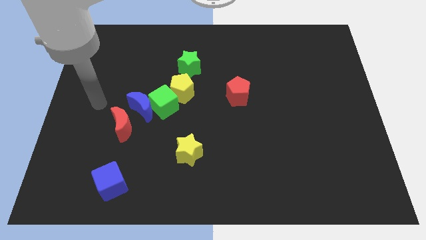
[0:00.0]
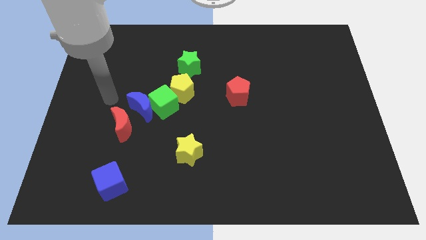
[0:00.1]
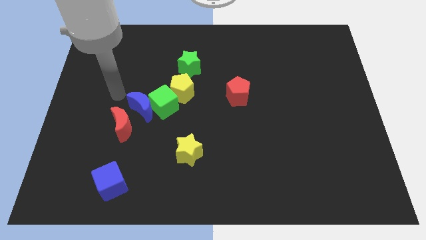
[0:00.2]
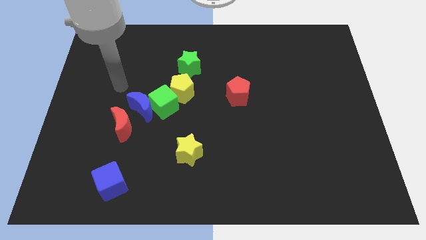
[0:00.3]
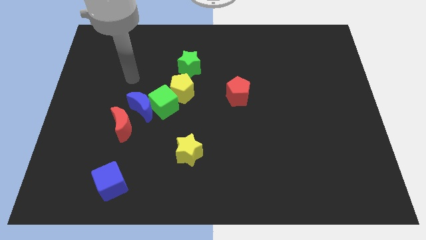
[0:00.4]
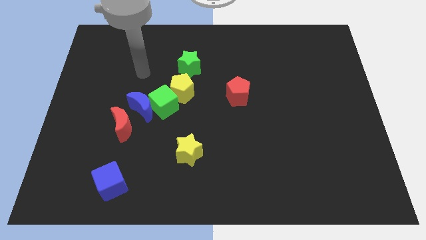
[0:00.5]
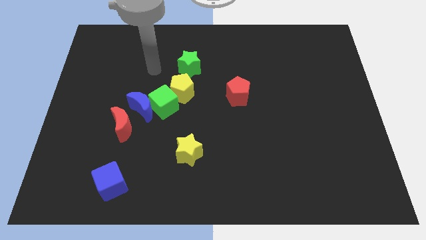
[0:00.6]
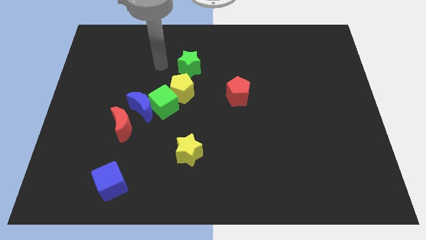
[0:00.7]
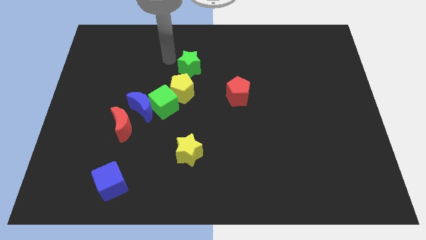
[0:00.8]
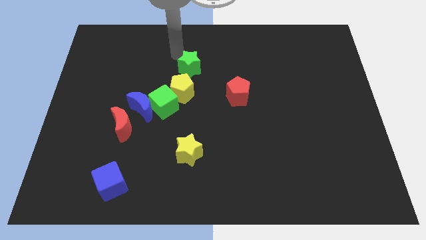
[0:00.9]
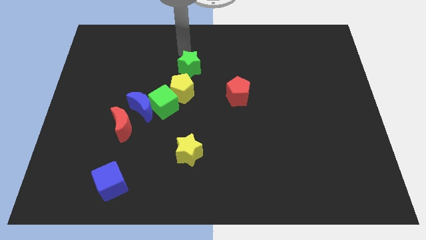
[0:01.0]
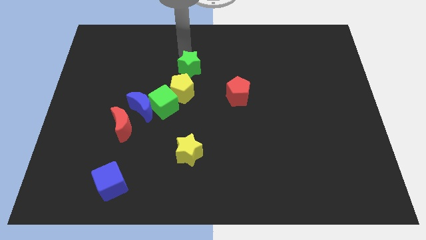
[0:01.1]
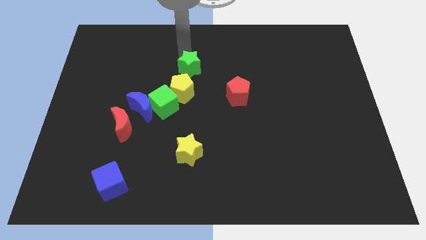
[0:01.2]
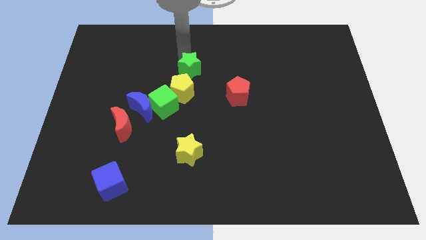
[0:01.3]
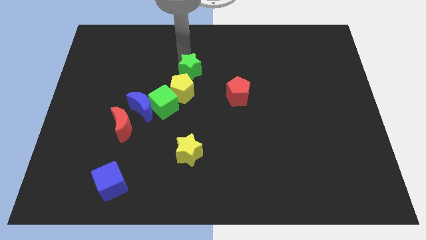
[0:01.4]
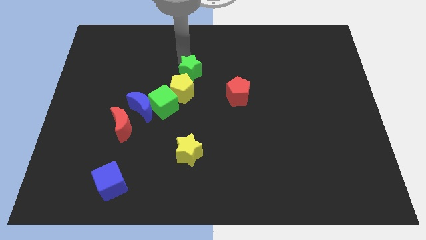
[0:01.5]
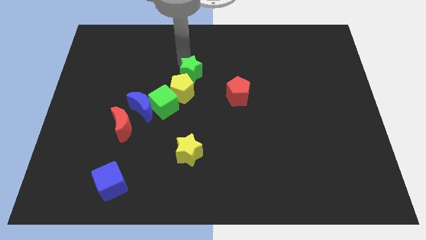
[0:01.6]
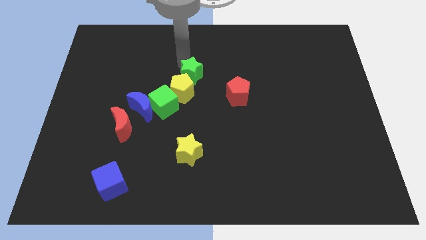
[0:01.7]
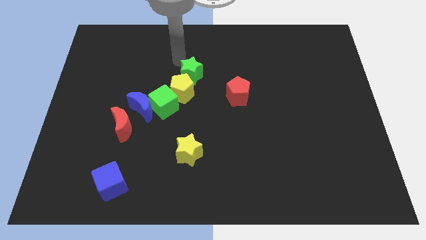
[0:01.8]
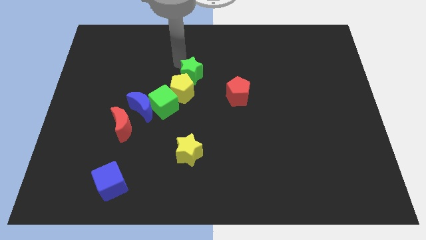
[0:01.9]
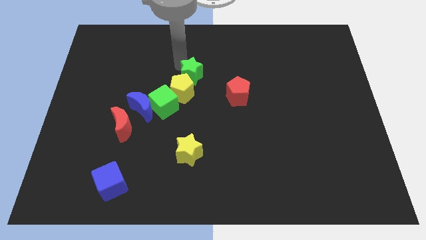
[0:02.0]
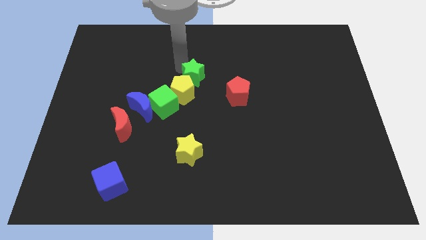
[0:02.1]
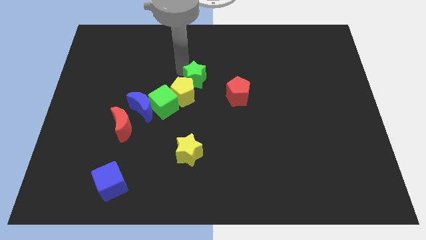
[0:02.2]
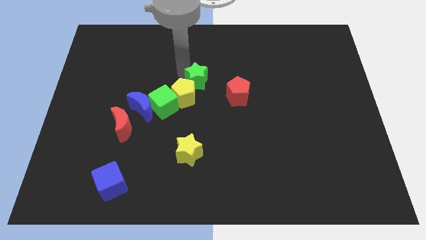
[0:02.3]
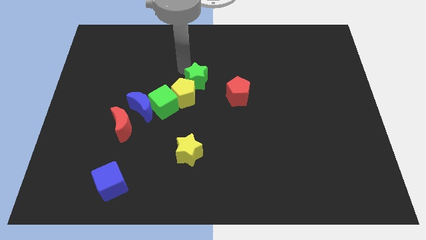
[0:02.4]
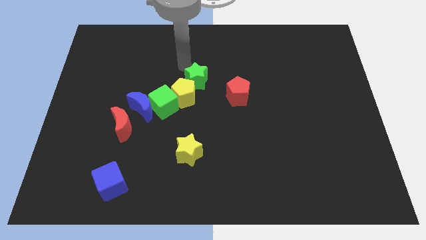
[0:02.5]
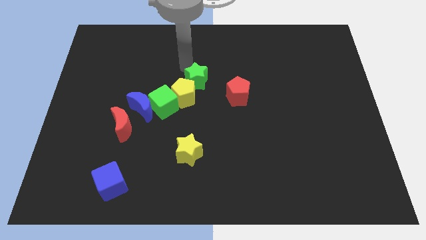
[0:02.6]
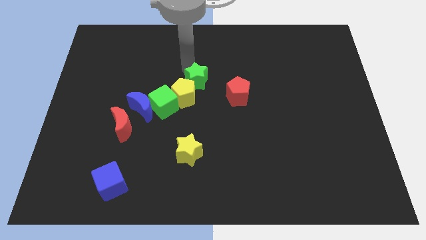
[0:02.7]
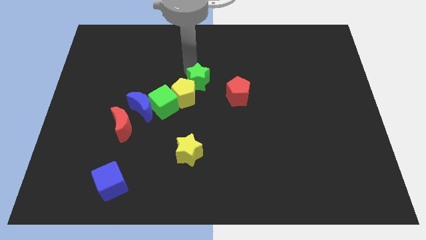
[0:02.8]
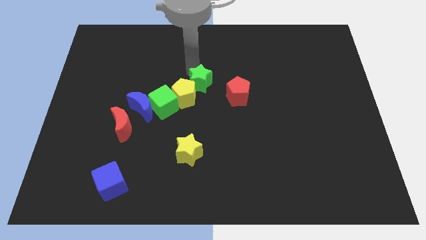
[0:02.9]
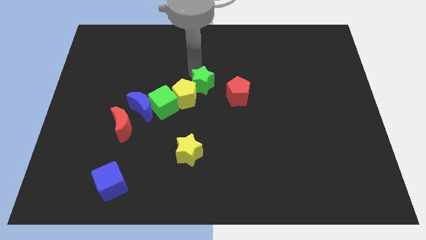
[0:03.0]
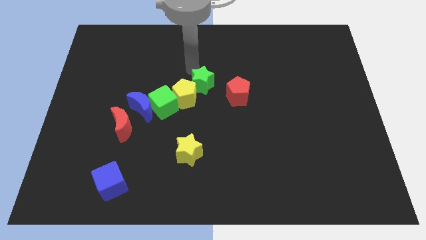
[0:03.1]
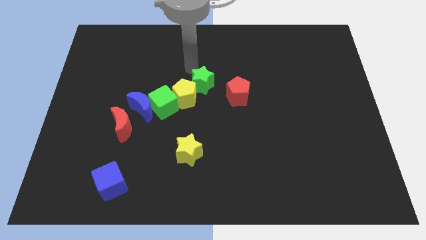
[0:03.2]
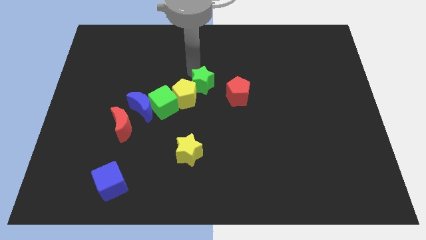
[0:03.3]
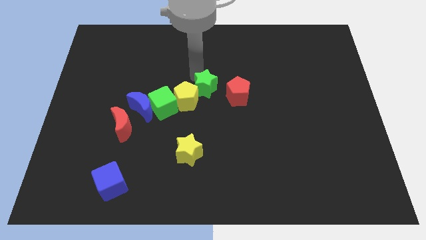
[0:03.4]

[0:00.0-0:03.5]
push the green star downwards and right diagonally slightly

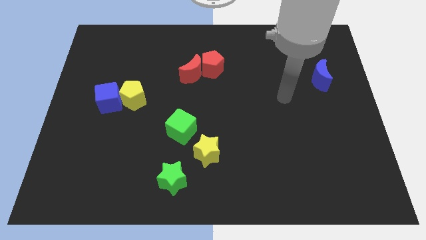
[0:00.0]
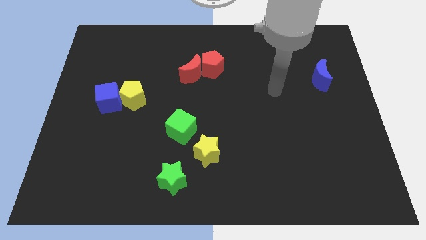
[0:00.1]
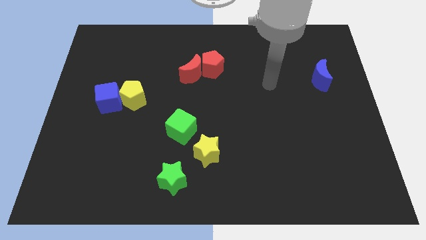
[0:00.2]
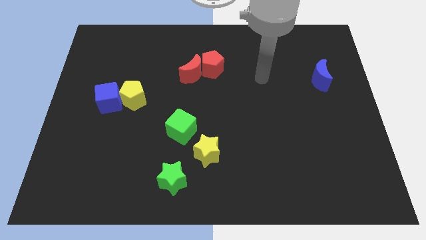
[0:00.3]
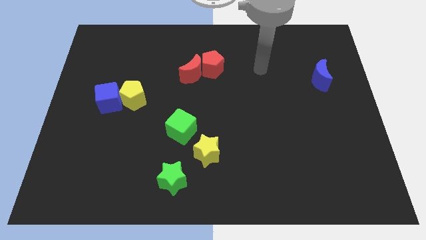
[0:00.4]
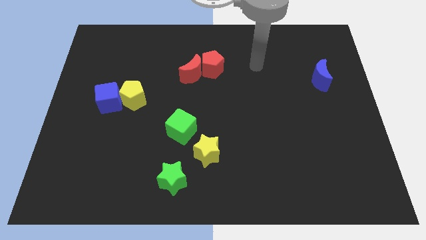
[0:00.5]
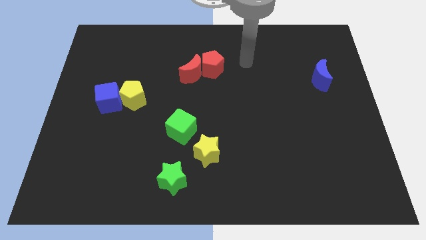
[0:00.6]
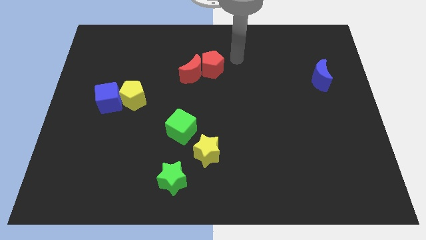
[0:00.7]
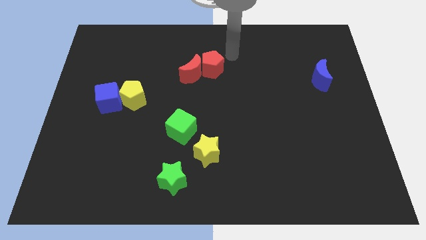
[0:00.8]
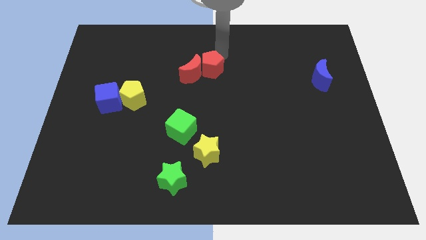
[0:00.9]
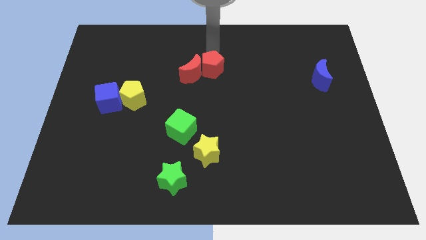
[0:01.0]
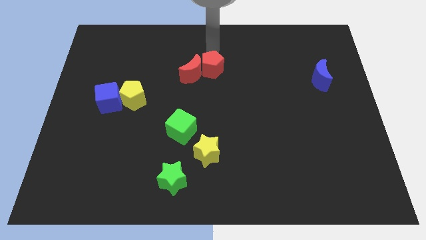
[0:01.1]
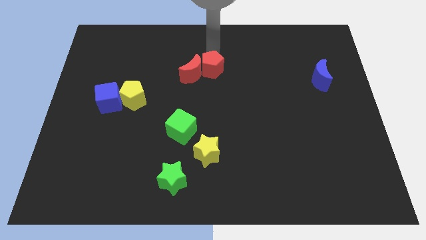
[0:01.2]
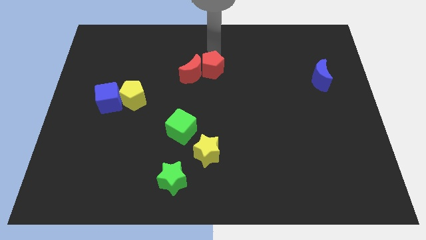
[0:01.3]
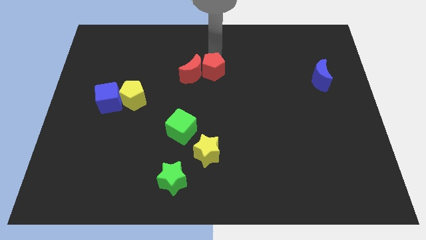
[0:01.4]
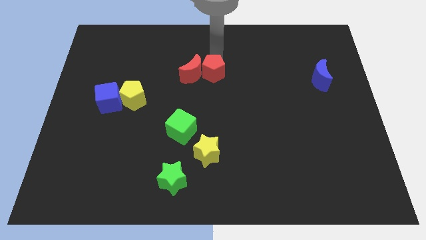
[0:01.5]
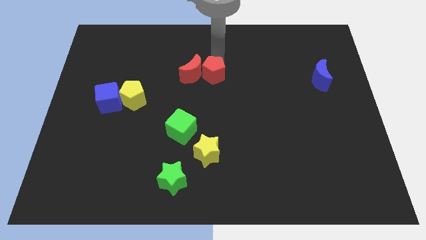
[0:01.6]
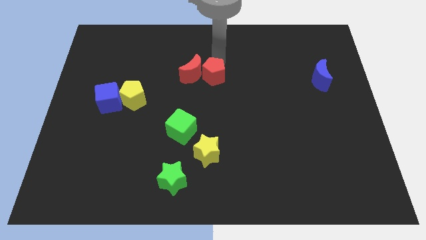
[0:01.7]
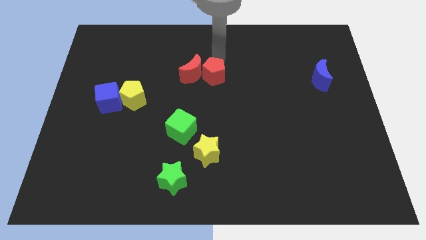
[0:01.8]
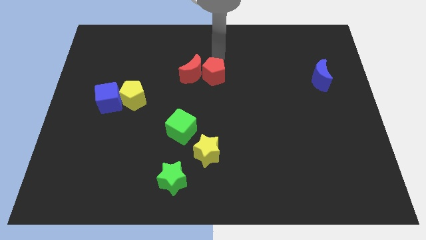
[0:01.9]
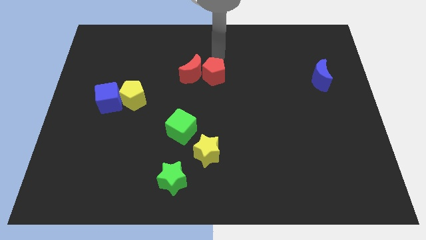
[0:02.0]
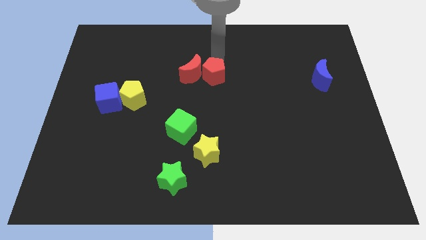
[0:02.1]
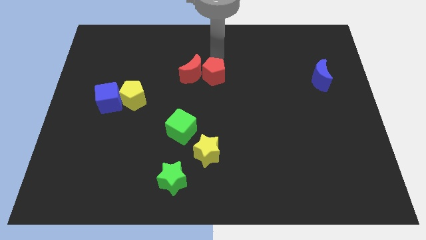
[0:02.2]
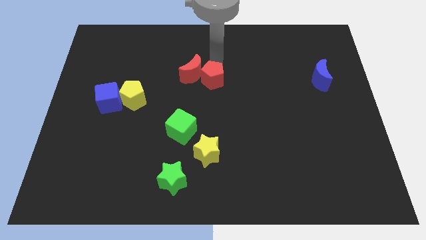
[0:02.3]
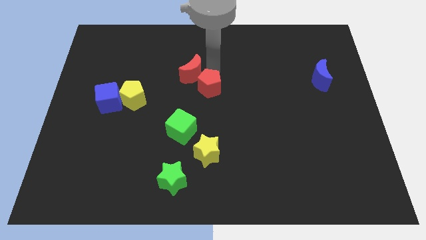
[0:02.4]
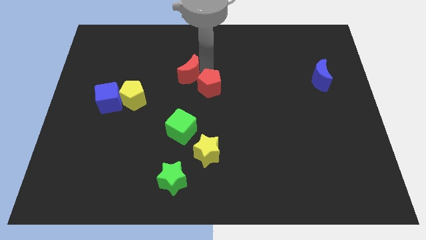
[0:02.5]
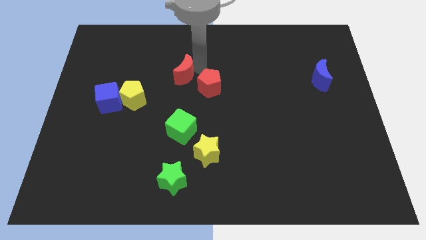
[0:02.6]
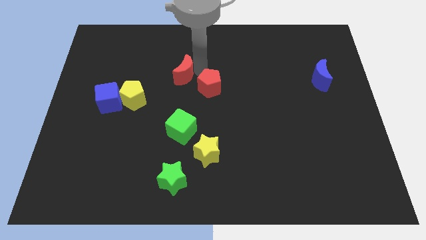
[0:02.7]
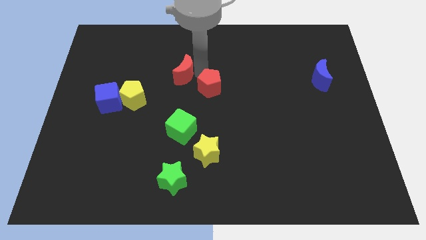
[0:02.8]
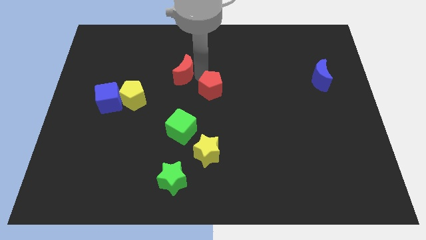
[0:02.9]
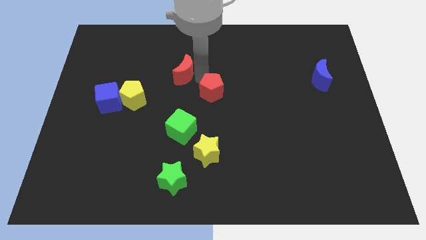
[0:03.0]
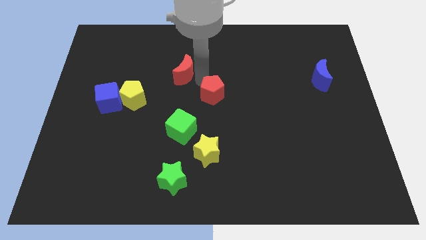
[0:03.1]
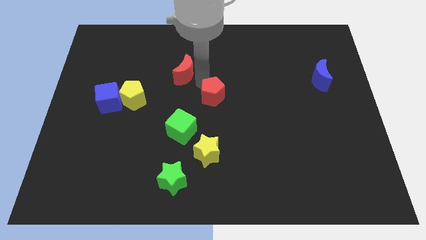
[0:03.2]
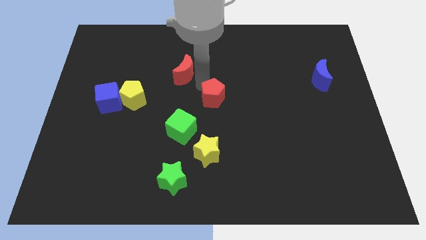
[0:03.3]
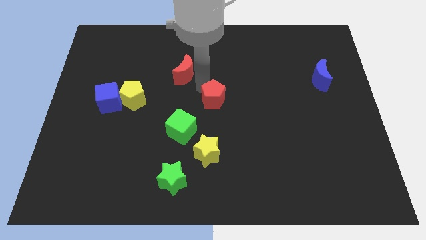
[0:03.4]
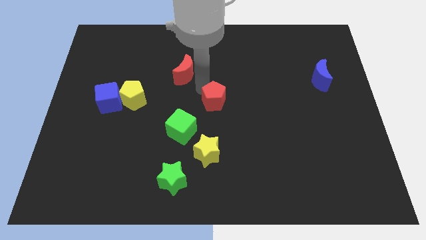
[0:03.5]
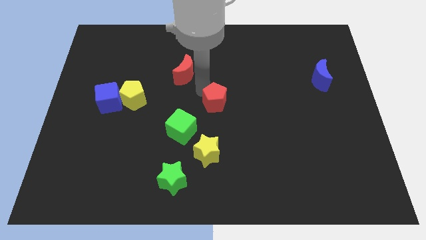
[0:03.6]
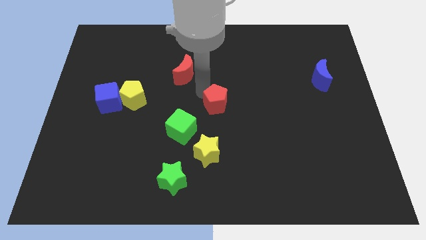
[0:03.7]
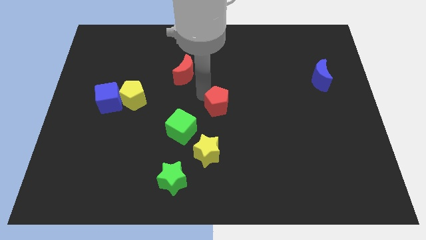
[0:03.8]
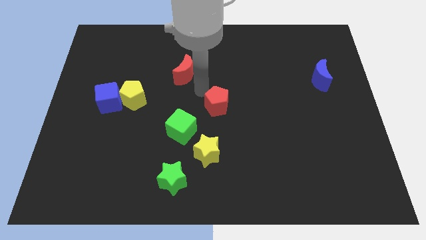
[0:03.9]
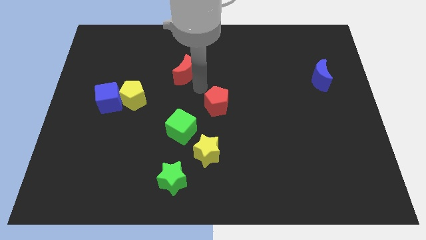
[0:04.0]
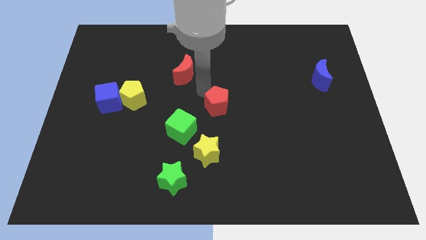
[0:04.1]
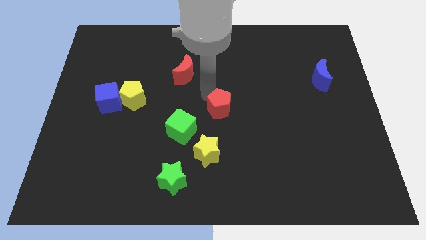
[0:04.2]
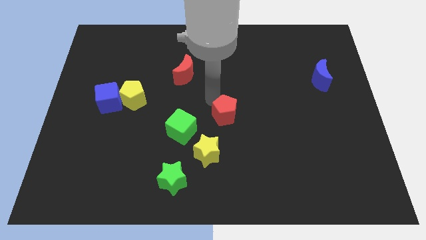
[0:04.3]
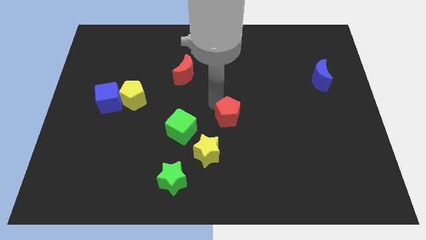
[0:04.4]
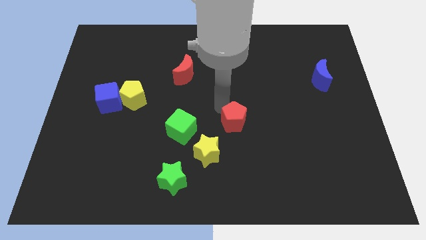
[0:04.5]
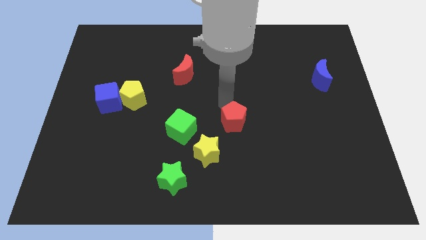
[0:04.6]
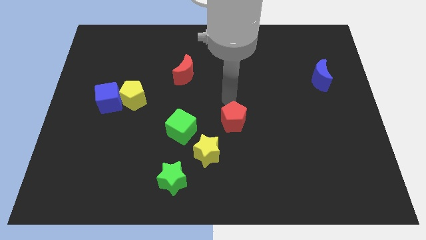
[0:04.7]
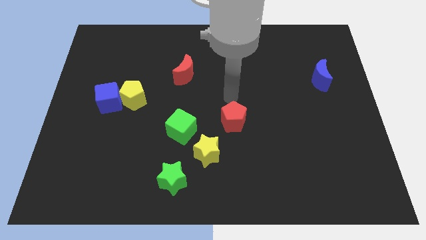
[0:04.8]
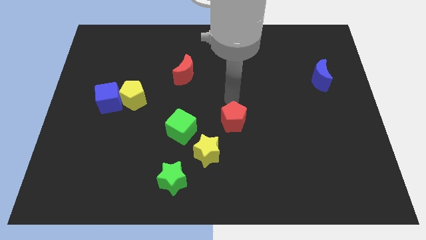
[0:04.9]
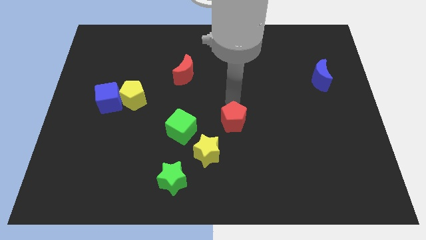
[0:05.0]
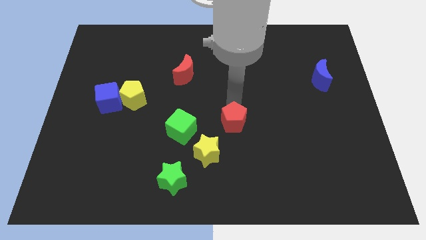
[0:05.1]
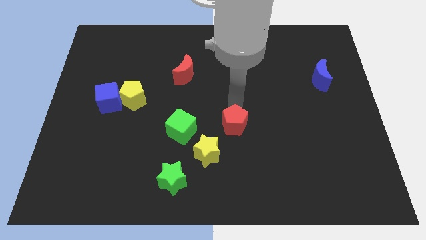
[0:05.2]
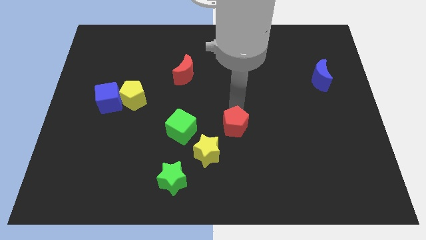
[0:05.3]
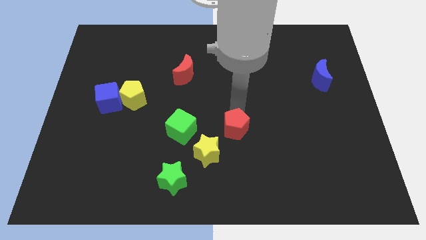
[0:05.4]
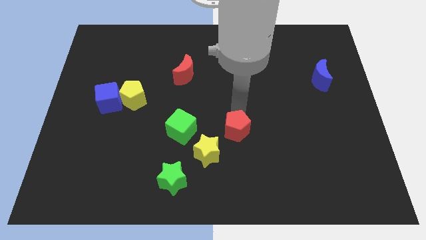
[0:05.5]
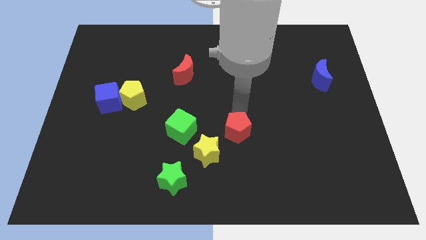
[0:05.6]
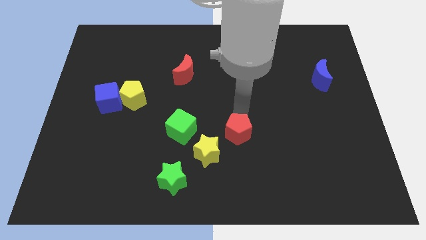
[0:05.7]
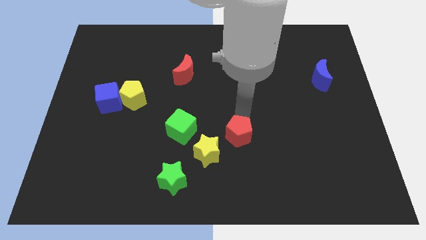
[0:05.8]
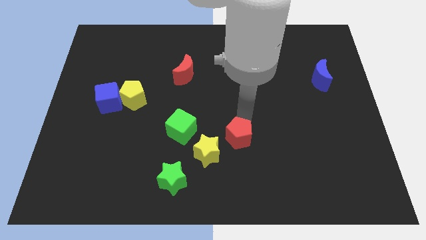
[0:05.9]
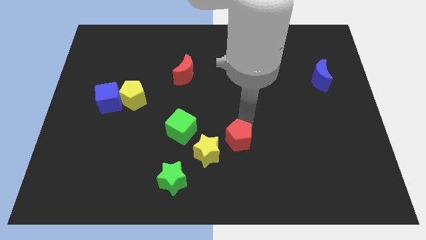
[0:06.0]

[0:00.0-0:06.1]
push the red pentagon downwards
